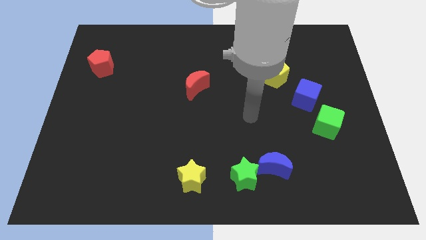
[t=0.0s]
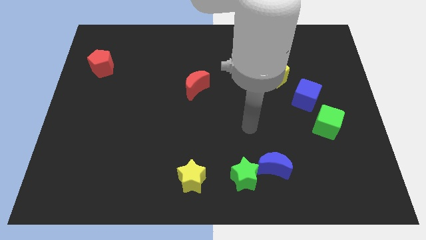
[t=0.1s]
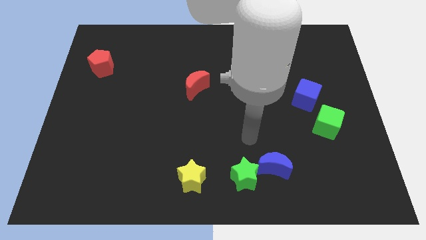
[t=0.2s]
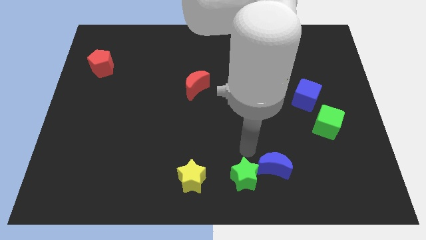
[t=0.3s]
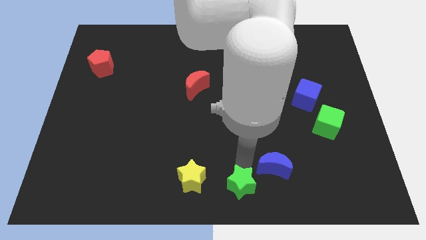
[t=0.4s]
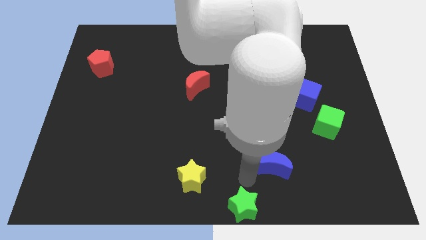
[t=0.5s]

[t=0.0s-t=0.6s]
separate the blue moon from the green star

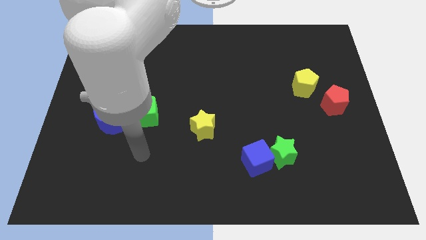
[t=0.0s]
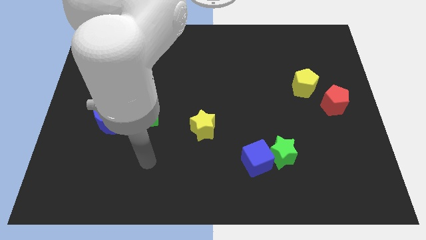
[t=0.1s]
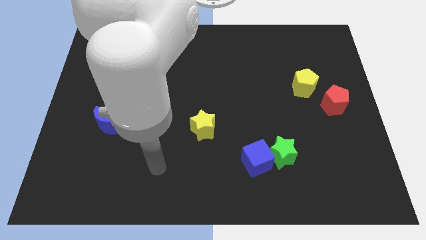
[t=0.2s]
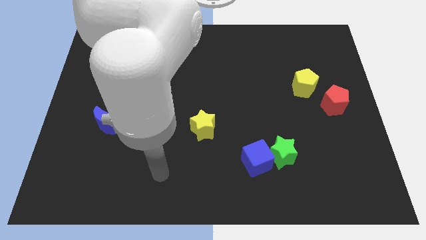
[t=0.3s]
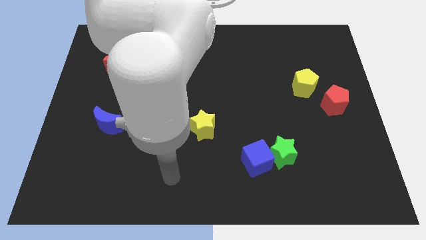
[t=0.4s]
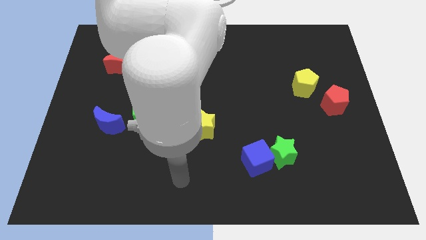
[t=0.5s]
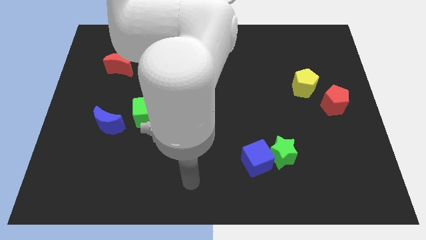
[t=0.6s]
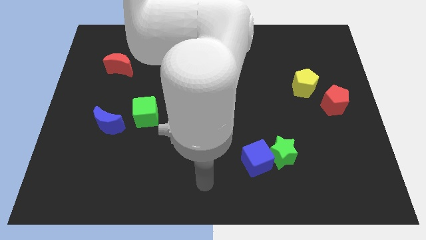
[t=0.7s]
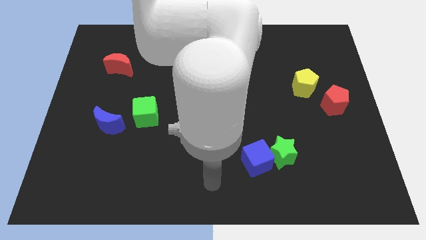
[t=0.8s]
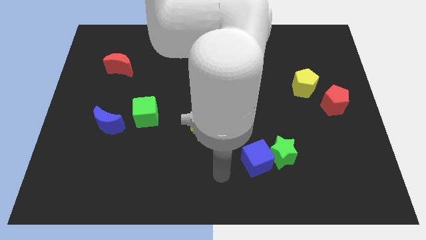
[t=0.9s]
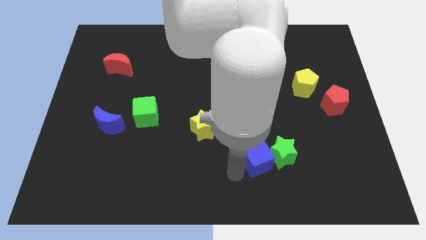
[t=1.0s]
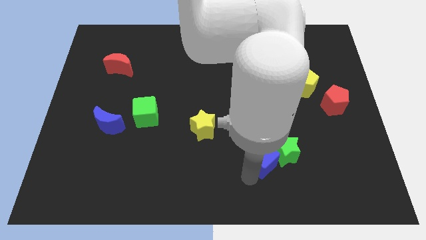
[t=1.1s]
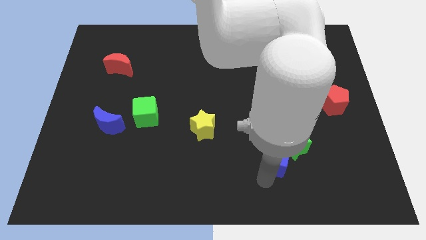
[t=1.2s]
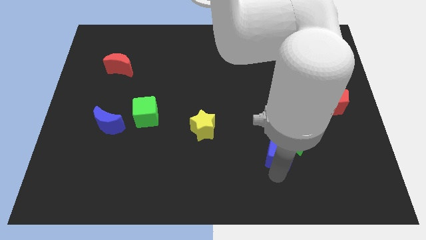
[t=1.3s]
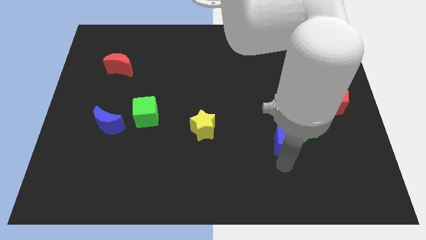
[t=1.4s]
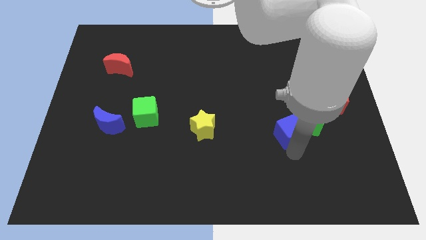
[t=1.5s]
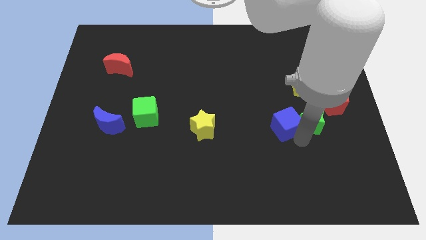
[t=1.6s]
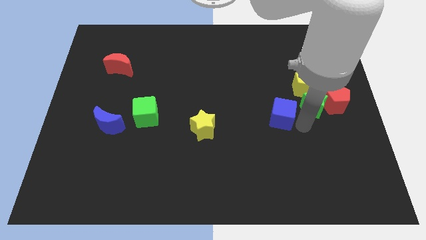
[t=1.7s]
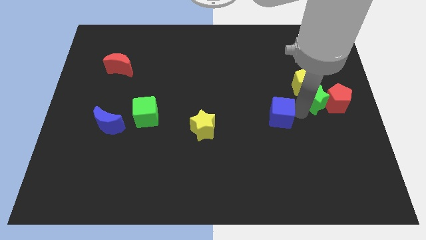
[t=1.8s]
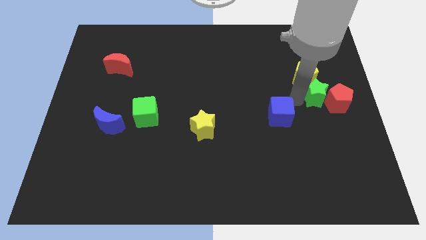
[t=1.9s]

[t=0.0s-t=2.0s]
move the blue cube away from the green star

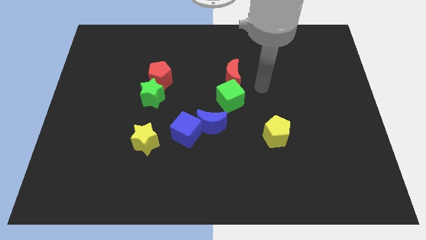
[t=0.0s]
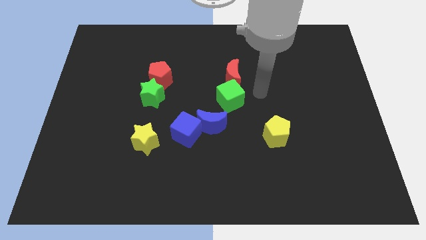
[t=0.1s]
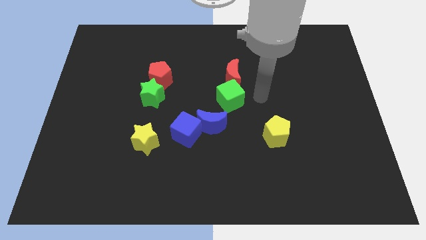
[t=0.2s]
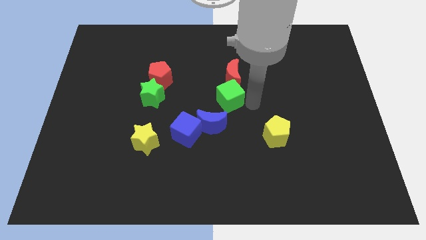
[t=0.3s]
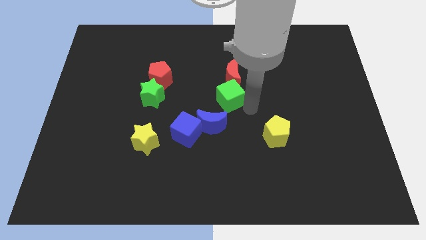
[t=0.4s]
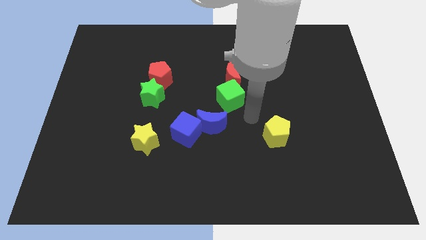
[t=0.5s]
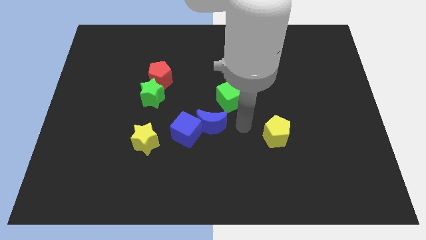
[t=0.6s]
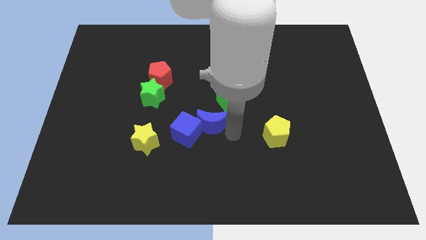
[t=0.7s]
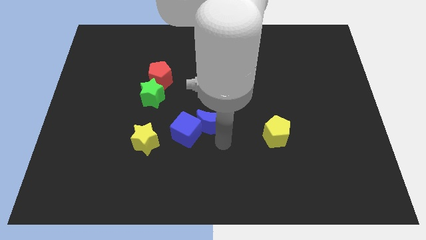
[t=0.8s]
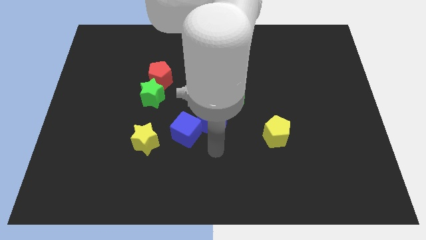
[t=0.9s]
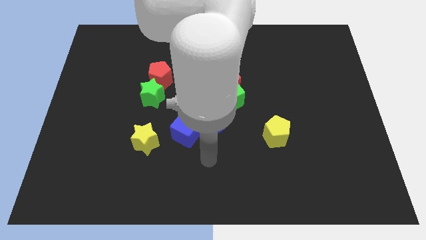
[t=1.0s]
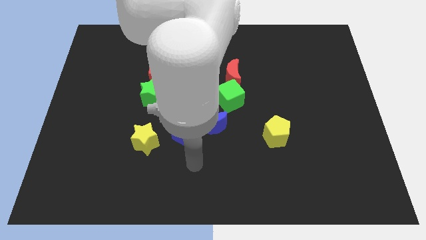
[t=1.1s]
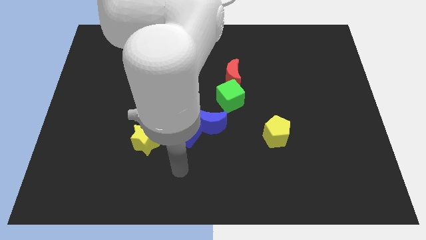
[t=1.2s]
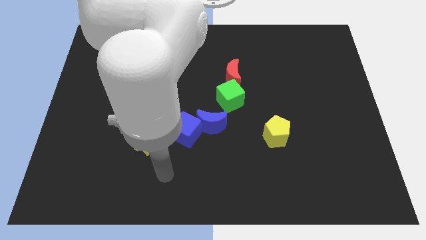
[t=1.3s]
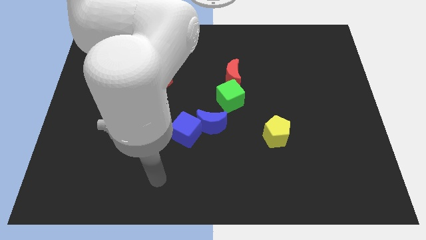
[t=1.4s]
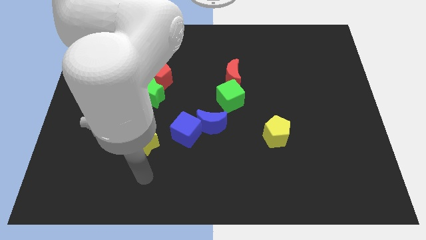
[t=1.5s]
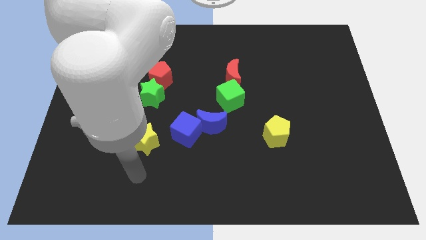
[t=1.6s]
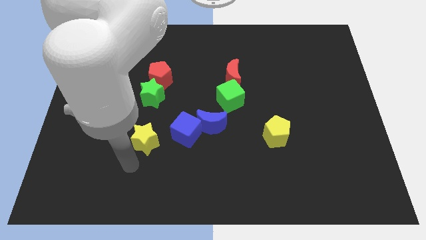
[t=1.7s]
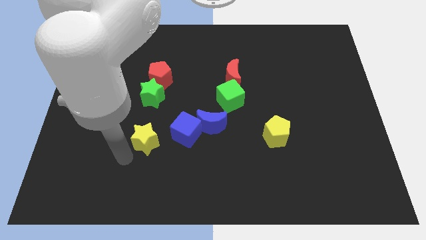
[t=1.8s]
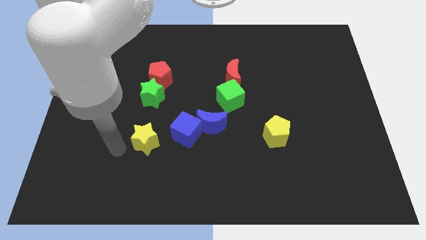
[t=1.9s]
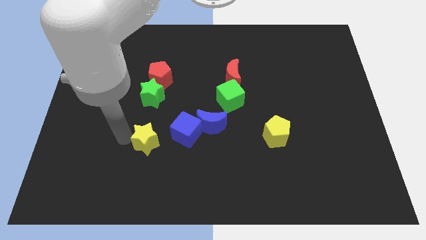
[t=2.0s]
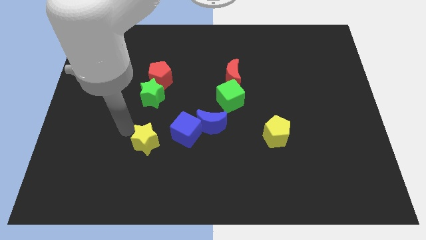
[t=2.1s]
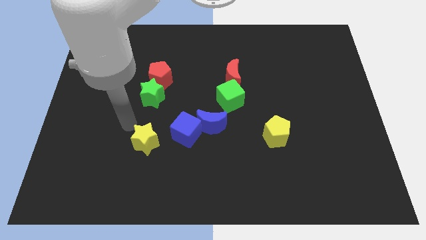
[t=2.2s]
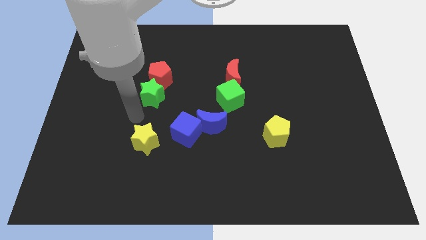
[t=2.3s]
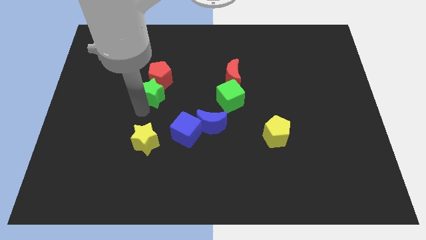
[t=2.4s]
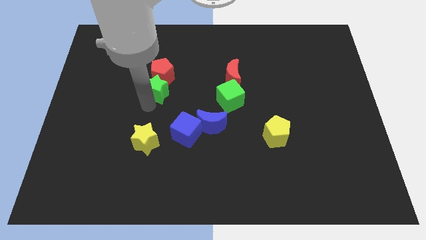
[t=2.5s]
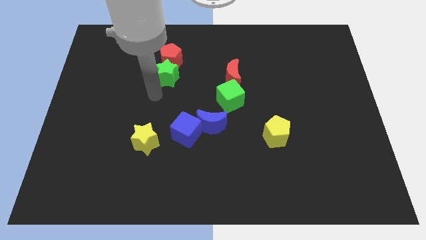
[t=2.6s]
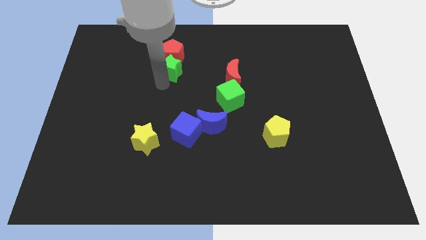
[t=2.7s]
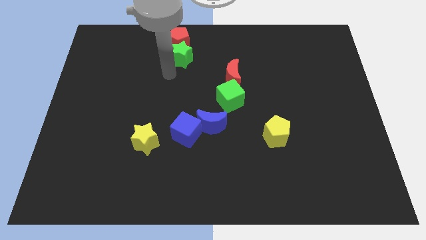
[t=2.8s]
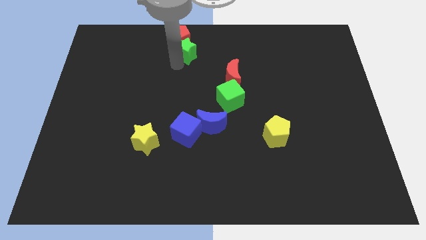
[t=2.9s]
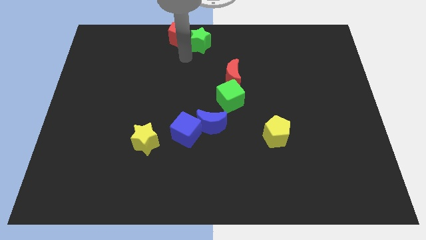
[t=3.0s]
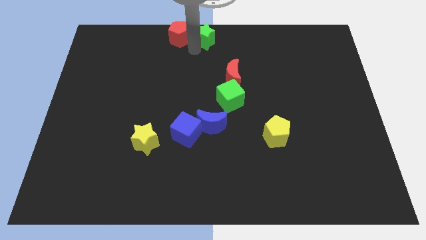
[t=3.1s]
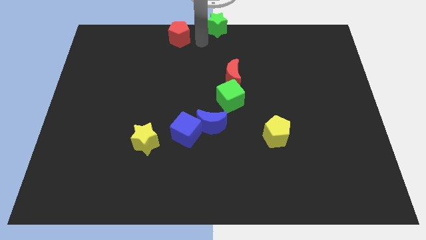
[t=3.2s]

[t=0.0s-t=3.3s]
pull the red pentagon apart from the green star

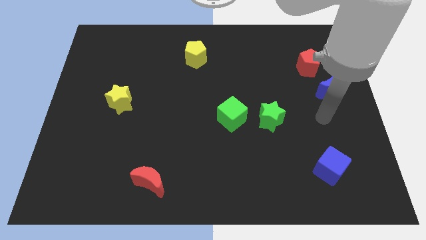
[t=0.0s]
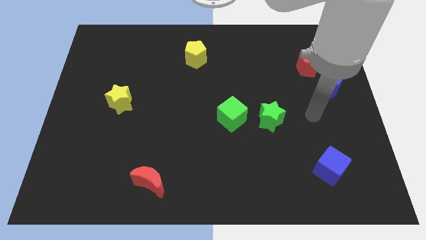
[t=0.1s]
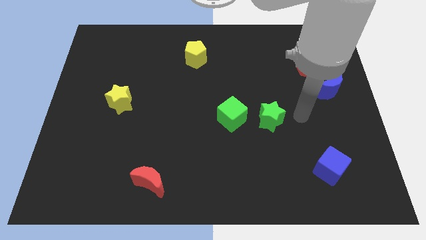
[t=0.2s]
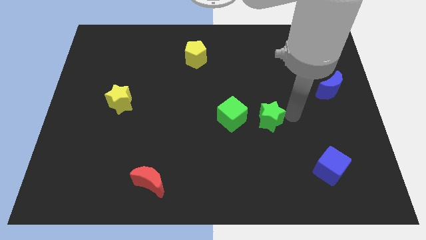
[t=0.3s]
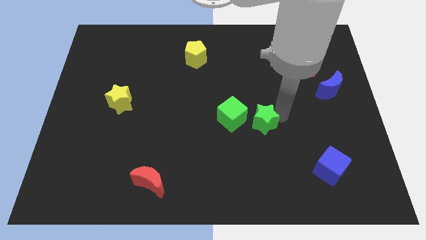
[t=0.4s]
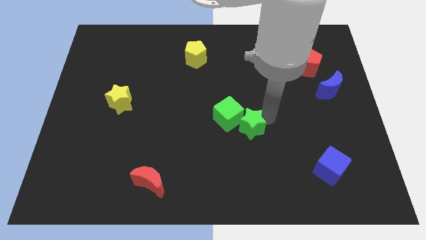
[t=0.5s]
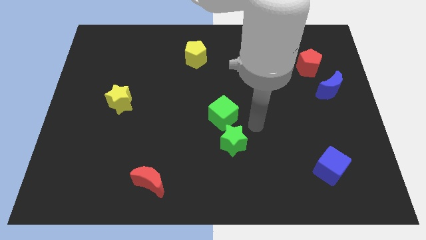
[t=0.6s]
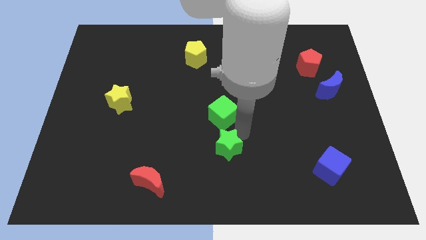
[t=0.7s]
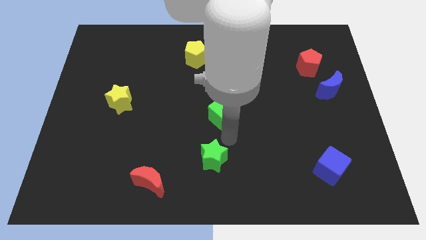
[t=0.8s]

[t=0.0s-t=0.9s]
move the green cube away from the green star

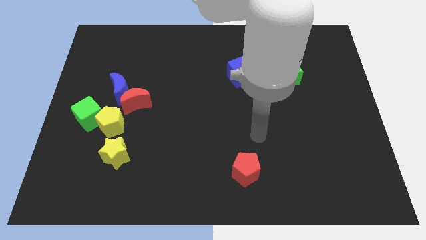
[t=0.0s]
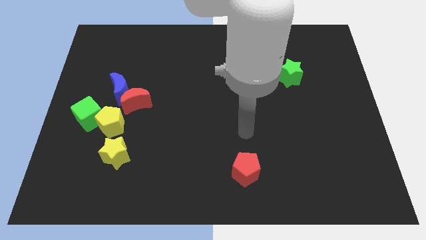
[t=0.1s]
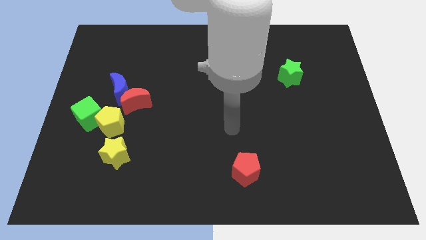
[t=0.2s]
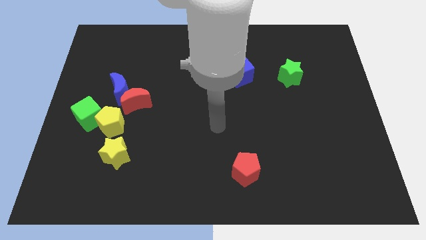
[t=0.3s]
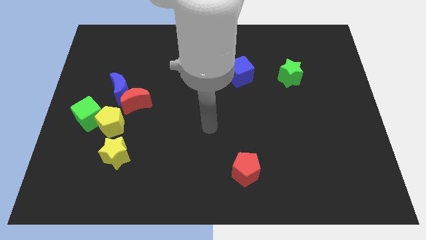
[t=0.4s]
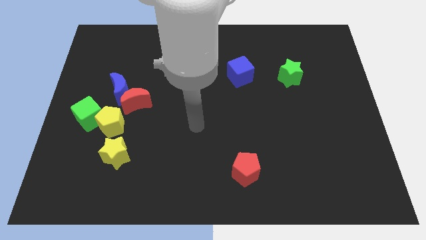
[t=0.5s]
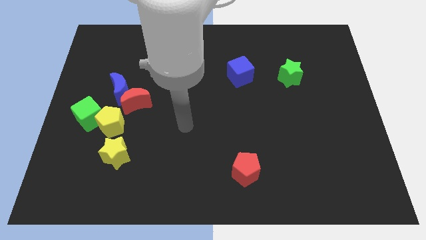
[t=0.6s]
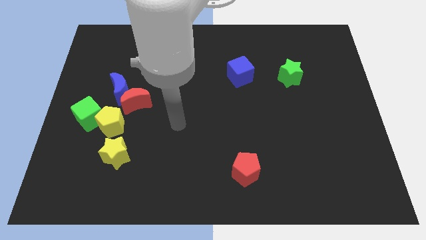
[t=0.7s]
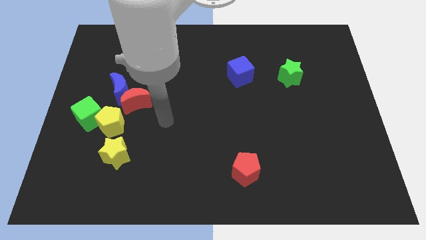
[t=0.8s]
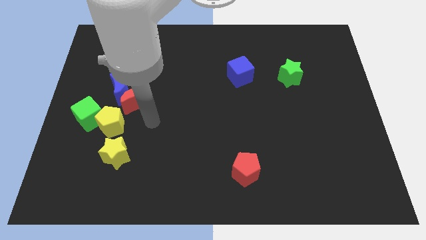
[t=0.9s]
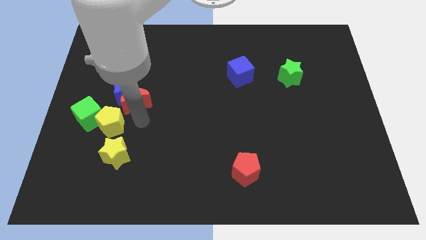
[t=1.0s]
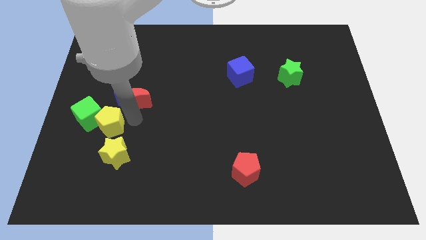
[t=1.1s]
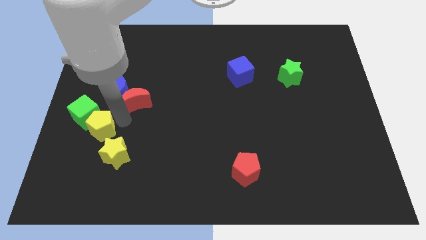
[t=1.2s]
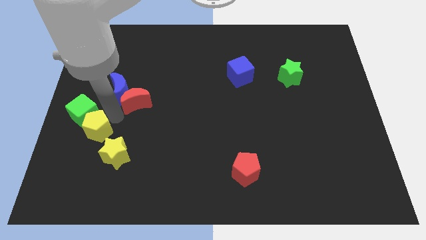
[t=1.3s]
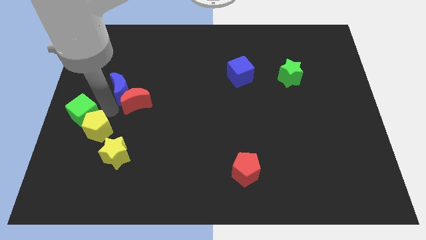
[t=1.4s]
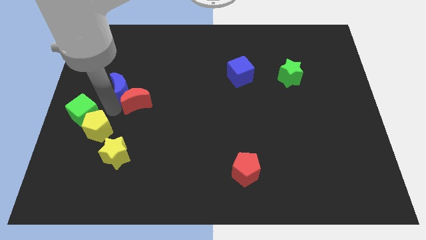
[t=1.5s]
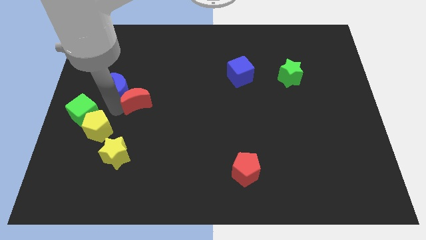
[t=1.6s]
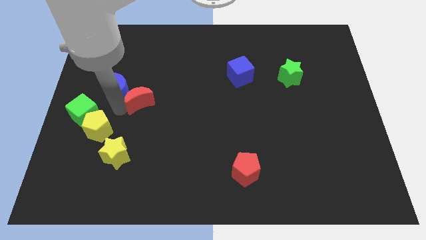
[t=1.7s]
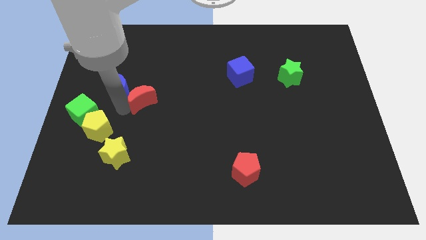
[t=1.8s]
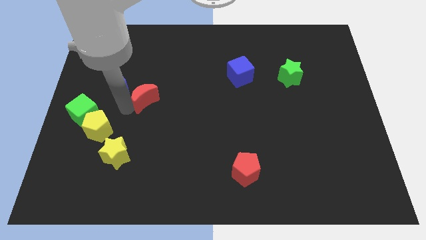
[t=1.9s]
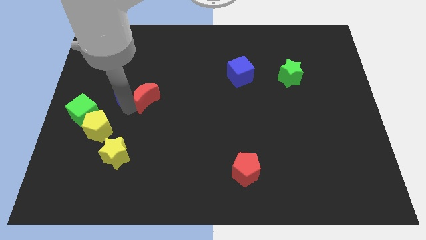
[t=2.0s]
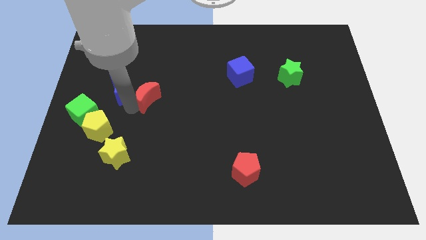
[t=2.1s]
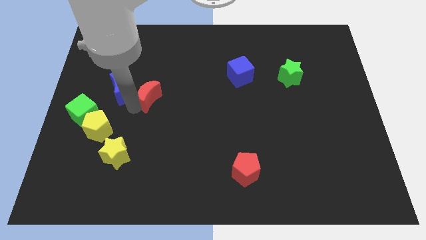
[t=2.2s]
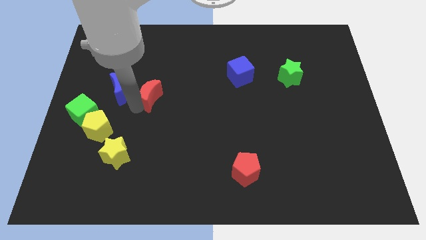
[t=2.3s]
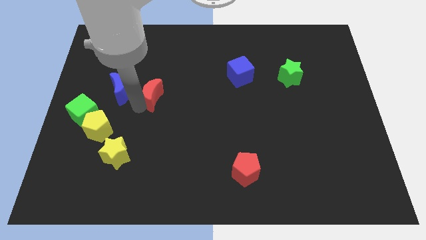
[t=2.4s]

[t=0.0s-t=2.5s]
separate the red moon from the blue moon and yellow pentagon
